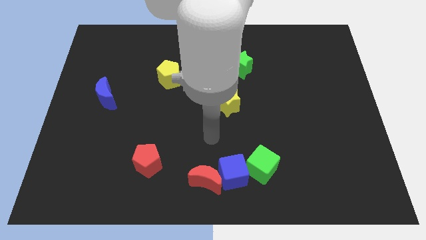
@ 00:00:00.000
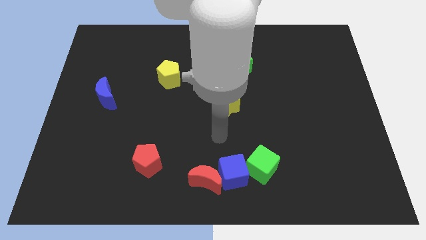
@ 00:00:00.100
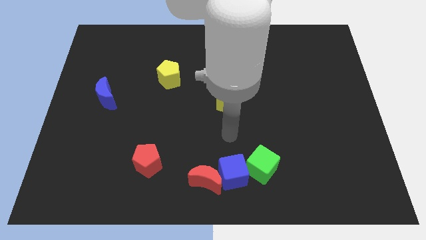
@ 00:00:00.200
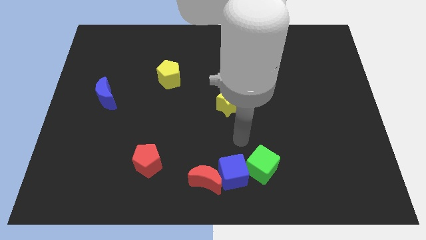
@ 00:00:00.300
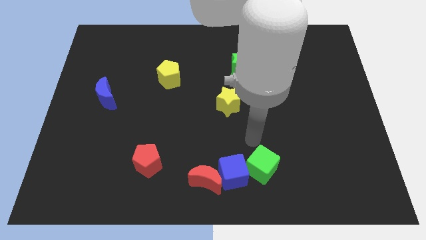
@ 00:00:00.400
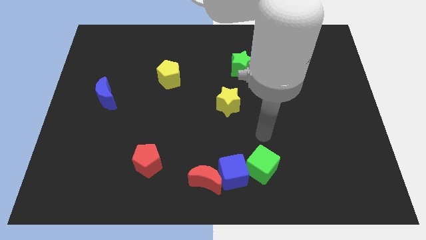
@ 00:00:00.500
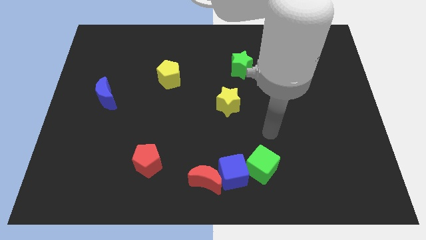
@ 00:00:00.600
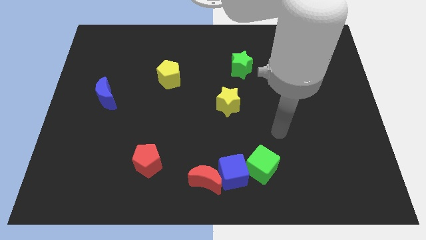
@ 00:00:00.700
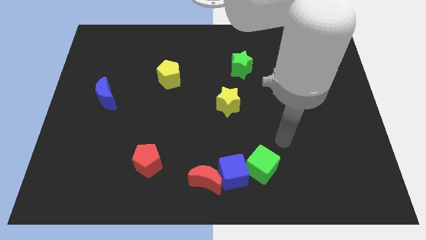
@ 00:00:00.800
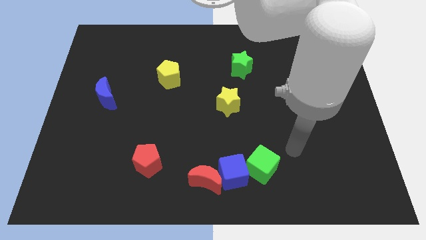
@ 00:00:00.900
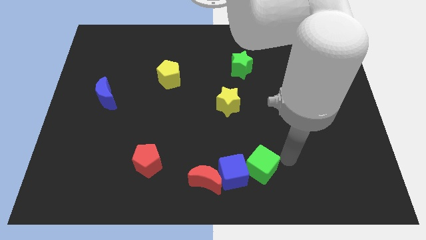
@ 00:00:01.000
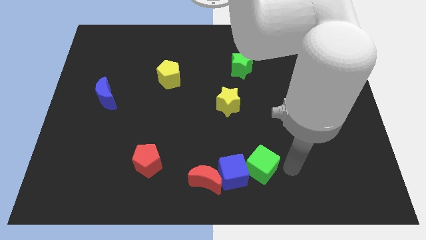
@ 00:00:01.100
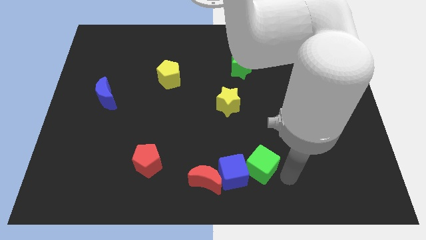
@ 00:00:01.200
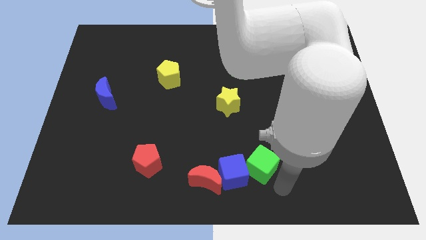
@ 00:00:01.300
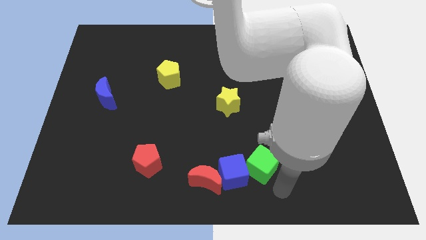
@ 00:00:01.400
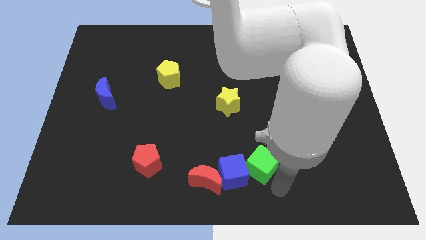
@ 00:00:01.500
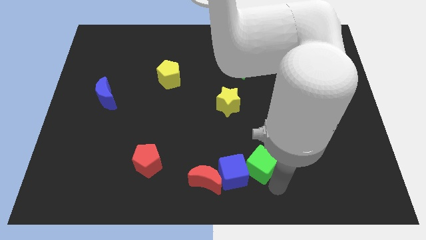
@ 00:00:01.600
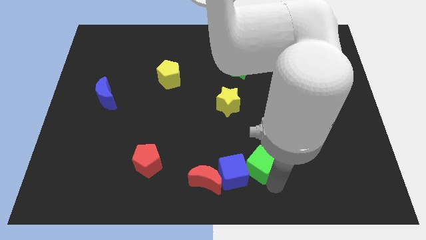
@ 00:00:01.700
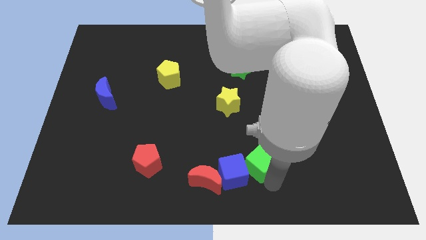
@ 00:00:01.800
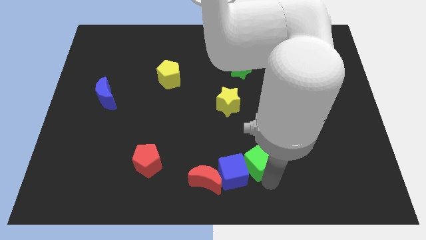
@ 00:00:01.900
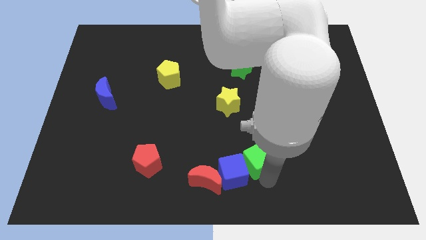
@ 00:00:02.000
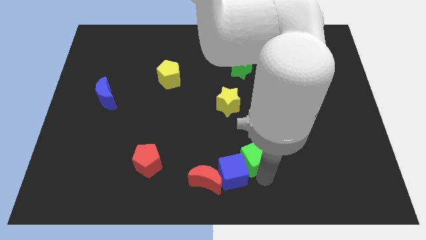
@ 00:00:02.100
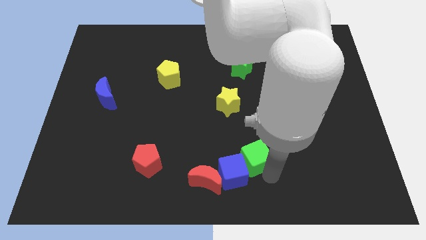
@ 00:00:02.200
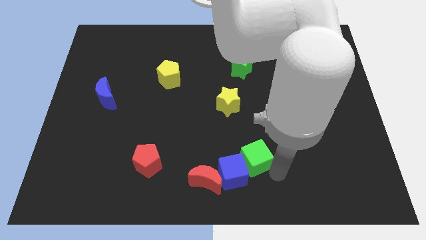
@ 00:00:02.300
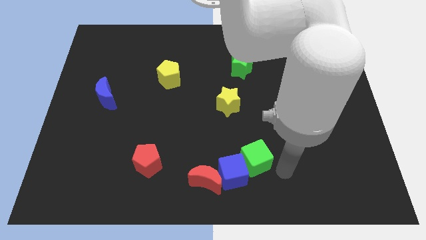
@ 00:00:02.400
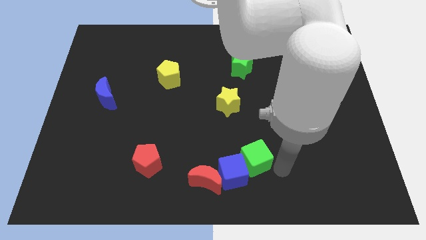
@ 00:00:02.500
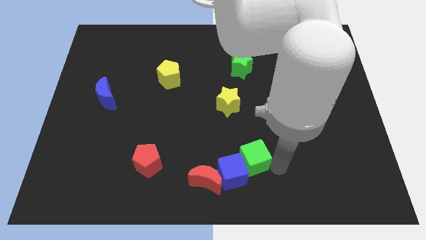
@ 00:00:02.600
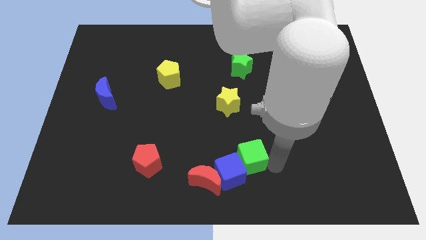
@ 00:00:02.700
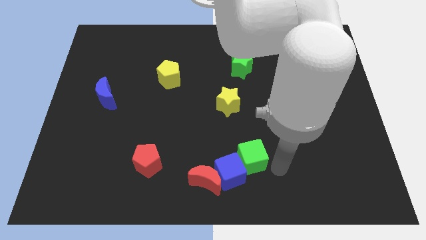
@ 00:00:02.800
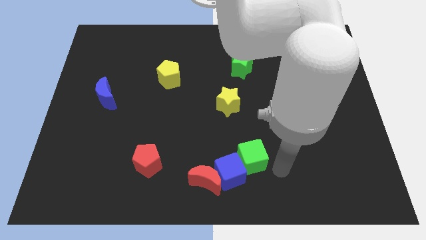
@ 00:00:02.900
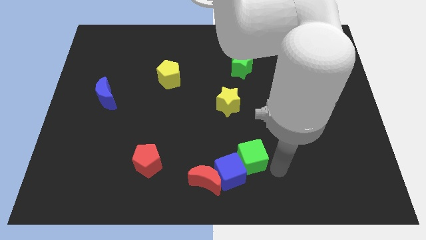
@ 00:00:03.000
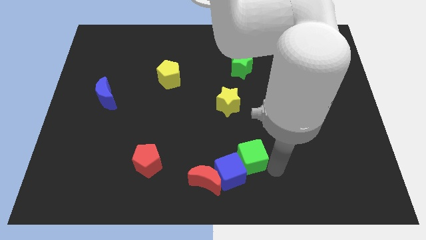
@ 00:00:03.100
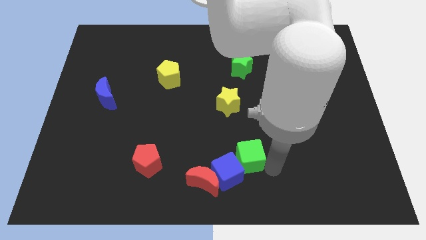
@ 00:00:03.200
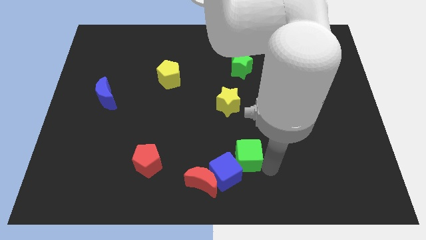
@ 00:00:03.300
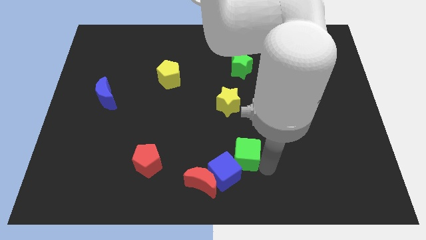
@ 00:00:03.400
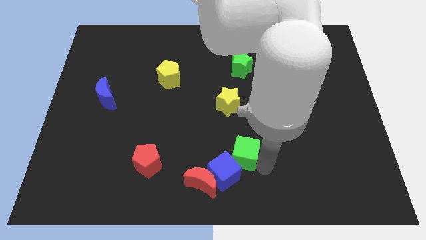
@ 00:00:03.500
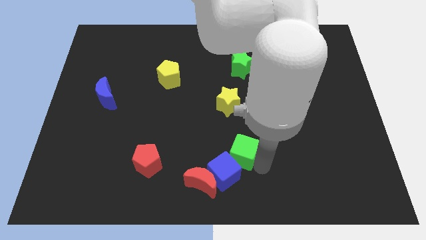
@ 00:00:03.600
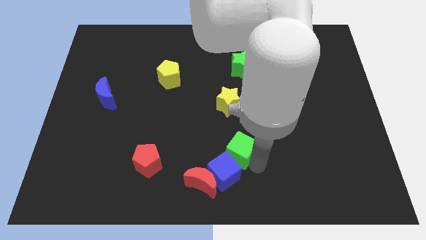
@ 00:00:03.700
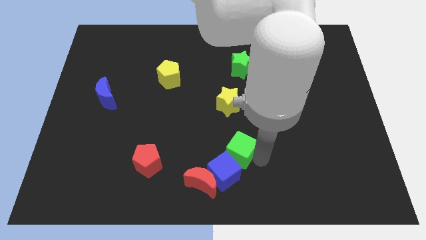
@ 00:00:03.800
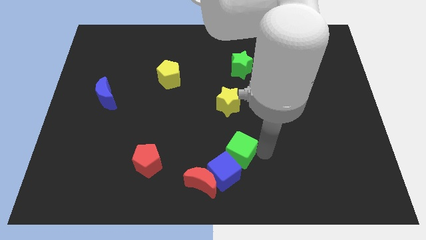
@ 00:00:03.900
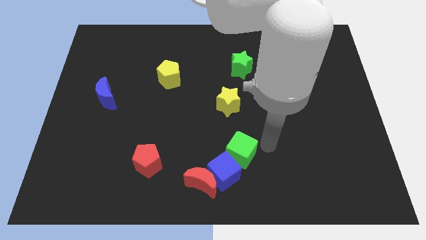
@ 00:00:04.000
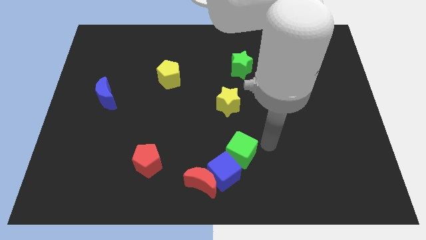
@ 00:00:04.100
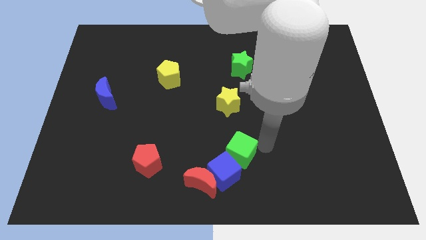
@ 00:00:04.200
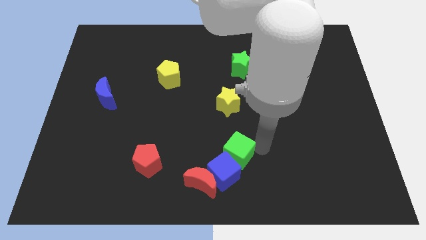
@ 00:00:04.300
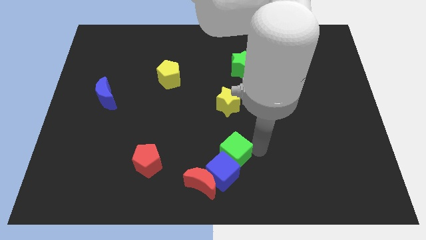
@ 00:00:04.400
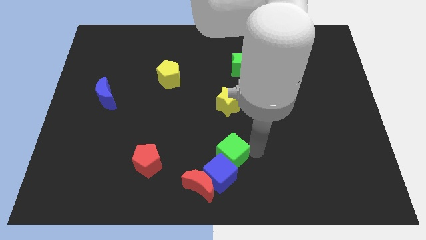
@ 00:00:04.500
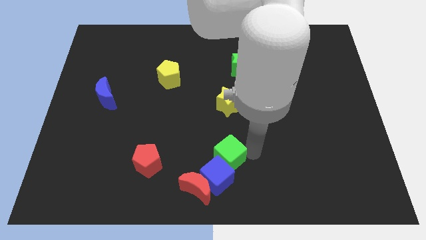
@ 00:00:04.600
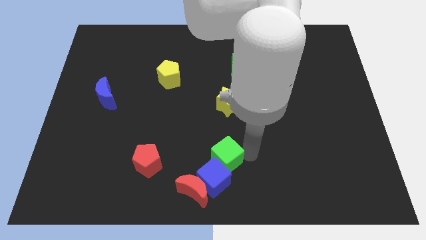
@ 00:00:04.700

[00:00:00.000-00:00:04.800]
slightly push the green cube left

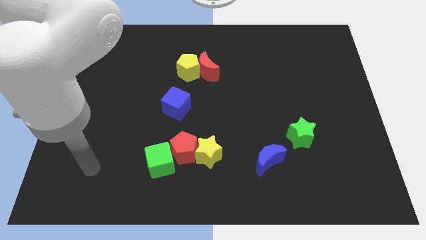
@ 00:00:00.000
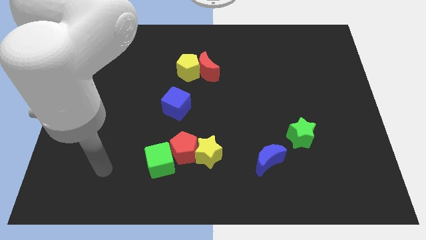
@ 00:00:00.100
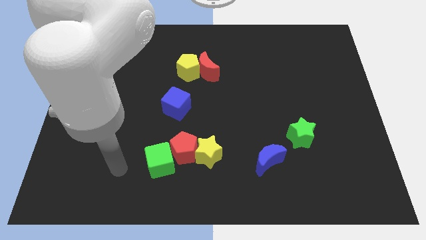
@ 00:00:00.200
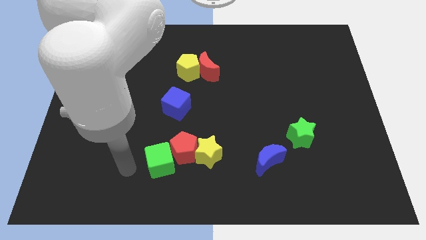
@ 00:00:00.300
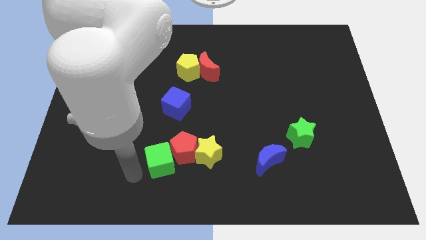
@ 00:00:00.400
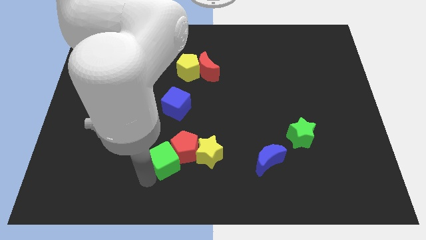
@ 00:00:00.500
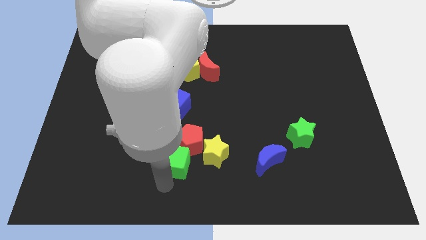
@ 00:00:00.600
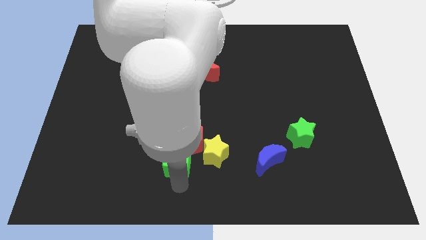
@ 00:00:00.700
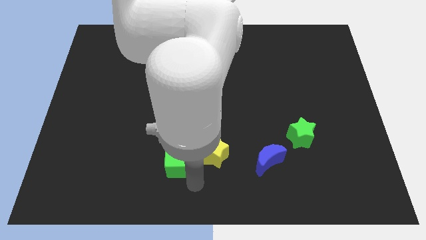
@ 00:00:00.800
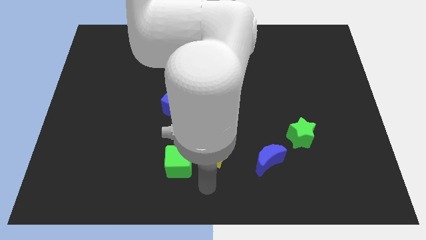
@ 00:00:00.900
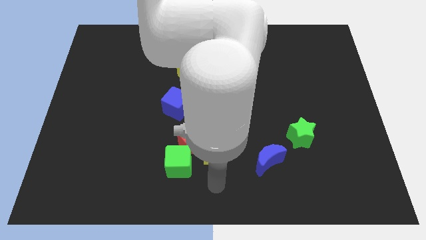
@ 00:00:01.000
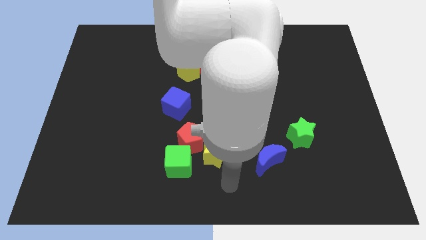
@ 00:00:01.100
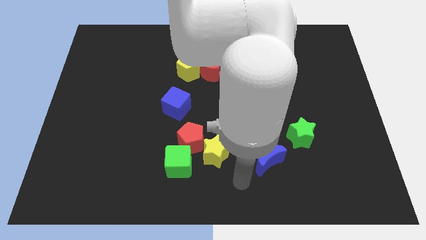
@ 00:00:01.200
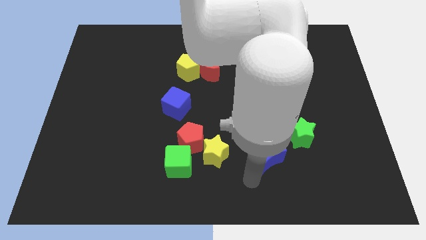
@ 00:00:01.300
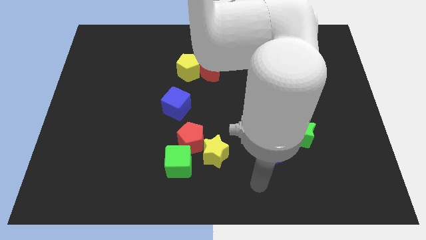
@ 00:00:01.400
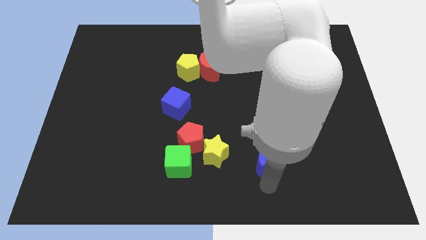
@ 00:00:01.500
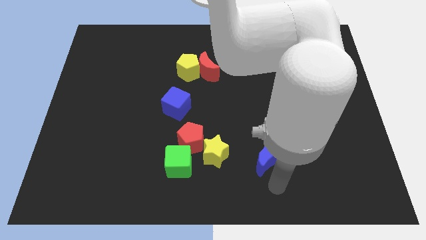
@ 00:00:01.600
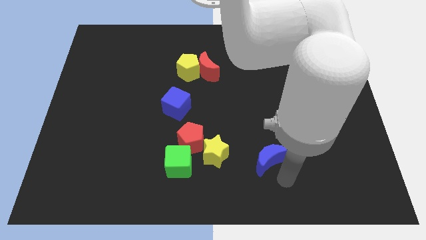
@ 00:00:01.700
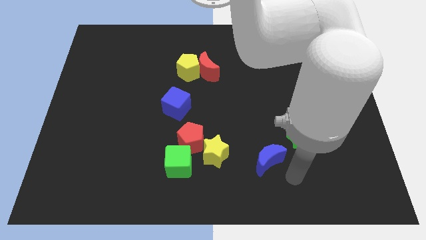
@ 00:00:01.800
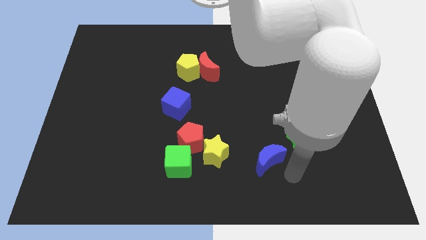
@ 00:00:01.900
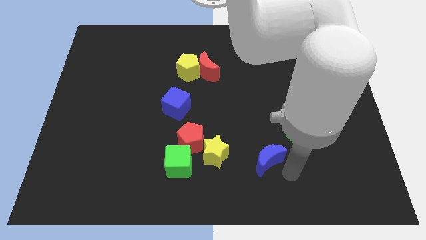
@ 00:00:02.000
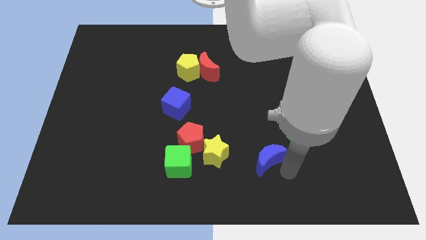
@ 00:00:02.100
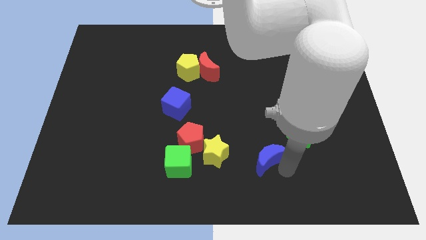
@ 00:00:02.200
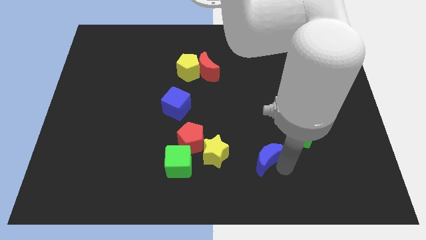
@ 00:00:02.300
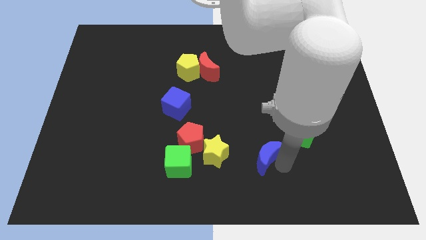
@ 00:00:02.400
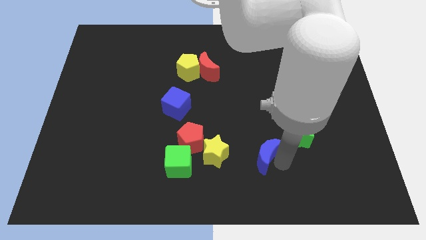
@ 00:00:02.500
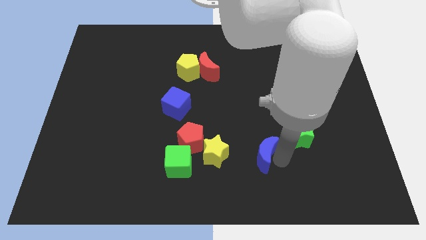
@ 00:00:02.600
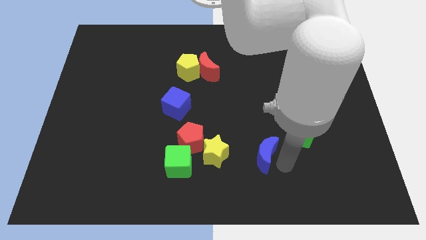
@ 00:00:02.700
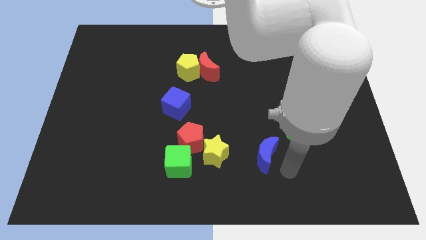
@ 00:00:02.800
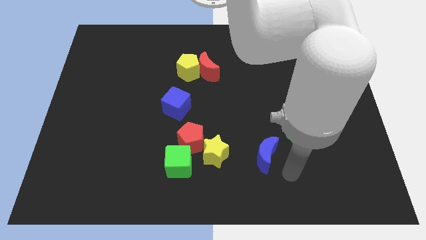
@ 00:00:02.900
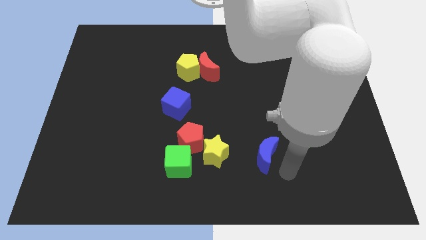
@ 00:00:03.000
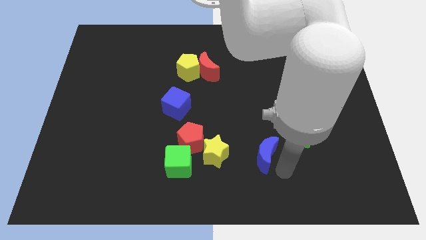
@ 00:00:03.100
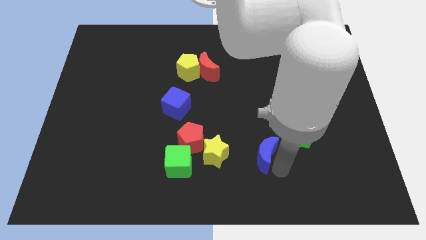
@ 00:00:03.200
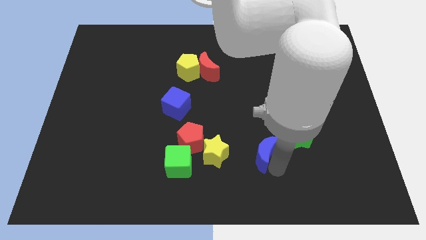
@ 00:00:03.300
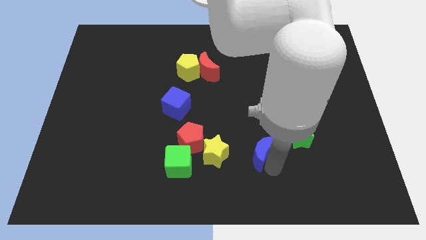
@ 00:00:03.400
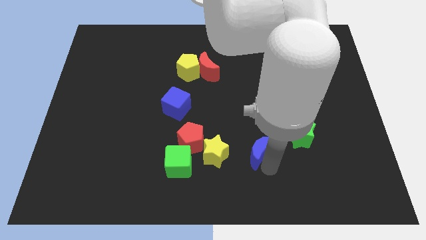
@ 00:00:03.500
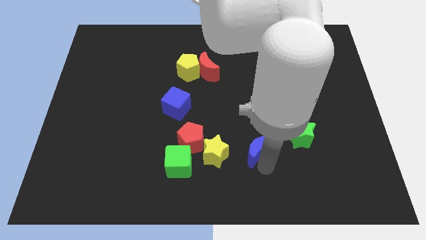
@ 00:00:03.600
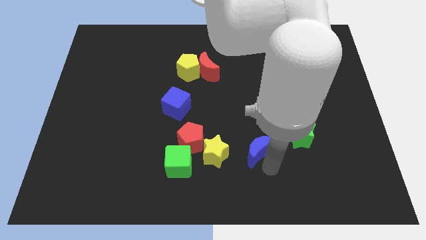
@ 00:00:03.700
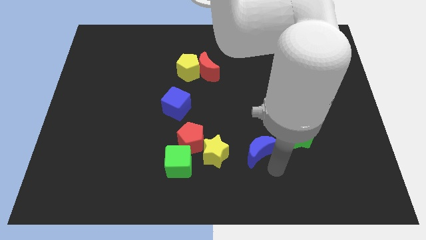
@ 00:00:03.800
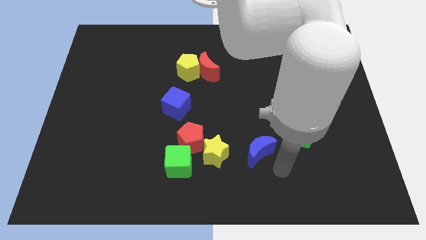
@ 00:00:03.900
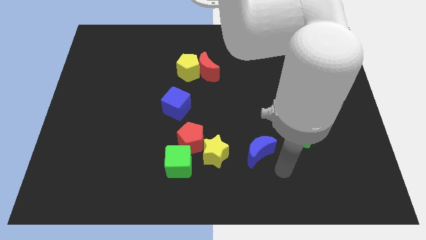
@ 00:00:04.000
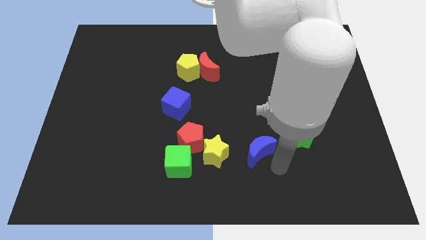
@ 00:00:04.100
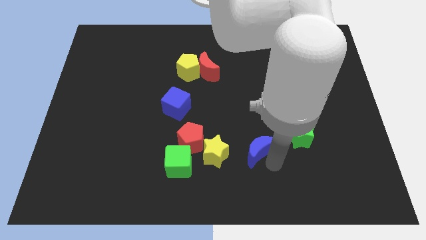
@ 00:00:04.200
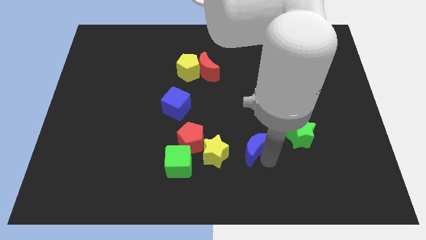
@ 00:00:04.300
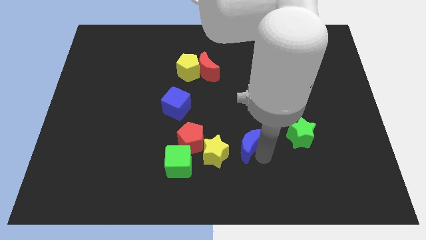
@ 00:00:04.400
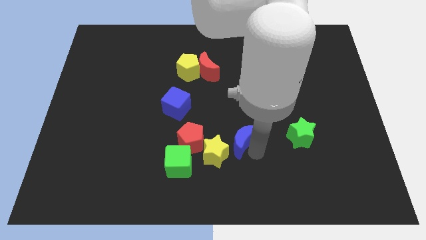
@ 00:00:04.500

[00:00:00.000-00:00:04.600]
slightly slide the blue moon upwards and to the left
